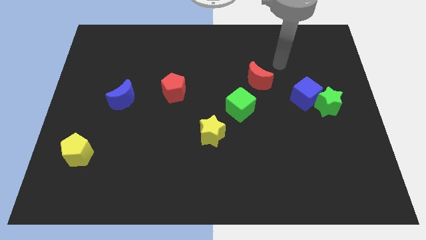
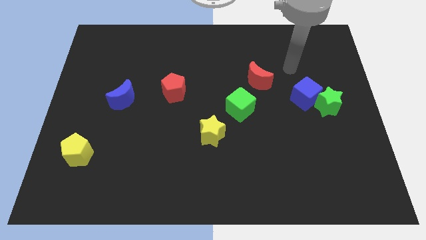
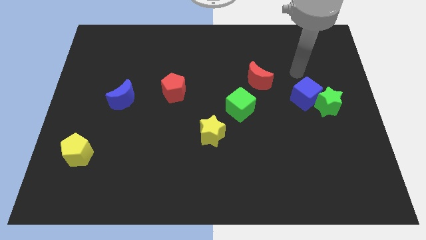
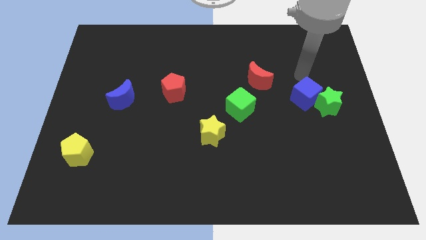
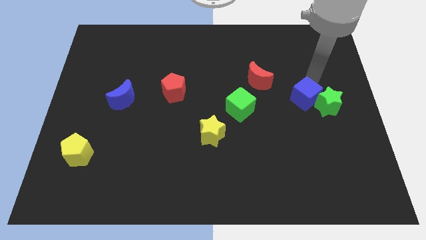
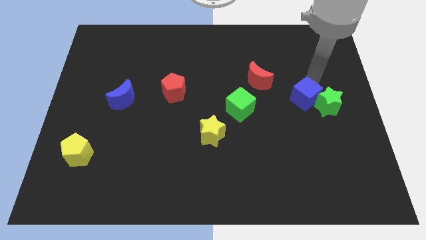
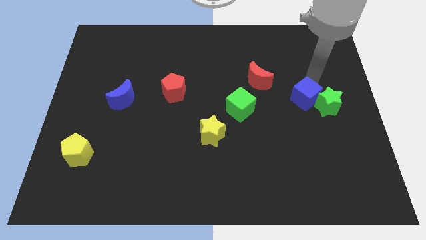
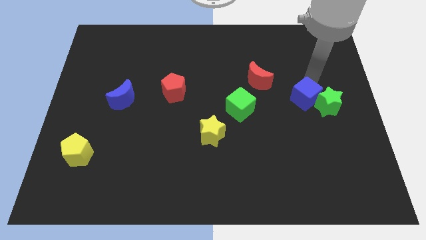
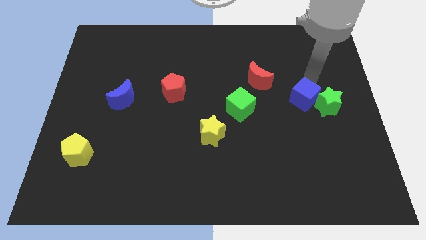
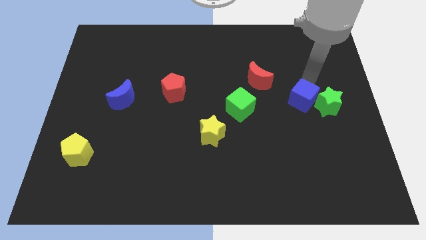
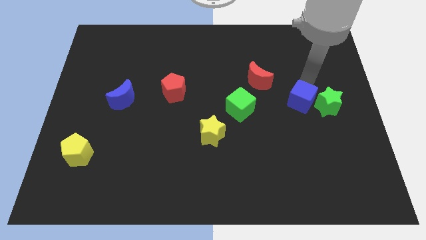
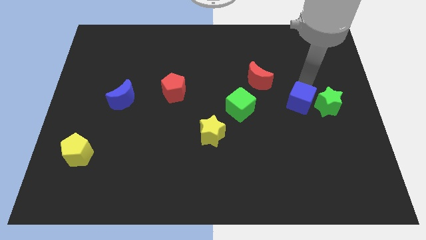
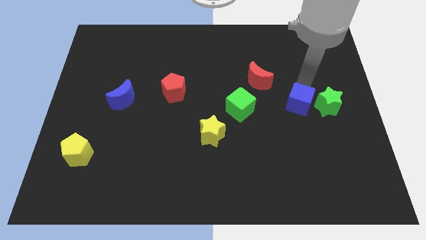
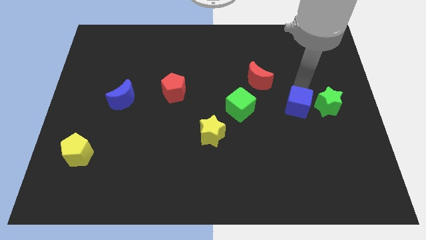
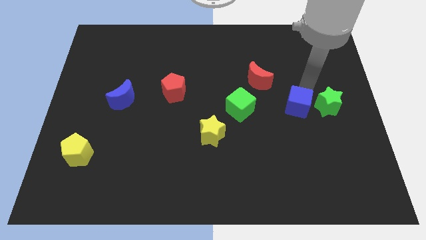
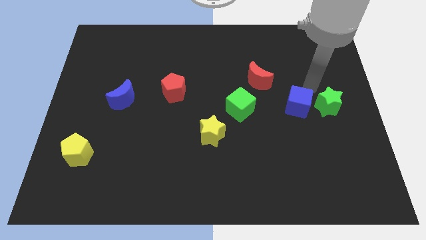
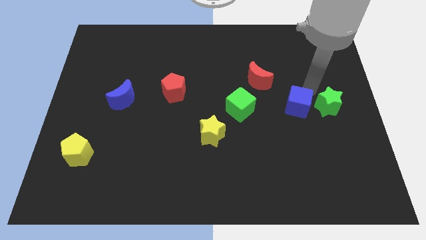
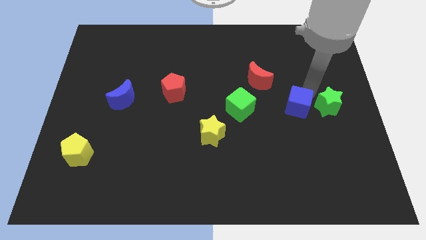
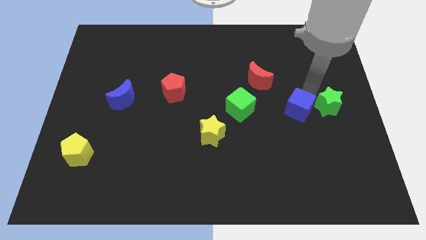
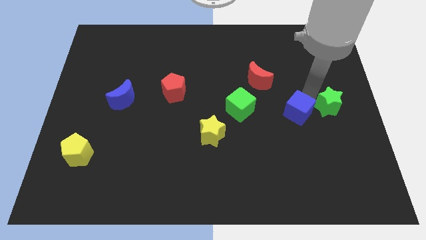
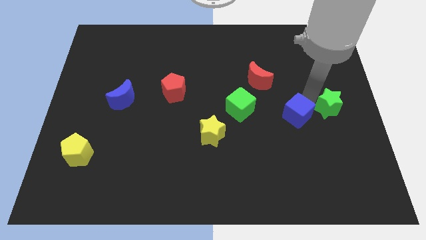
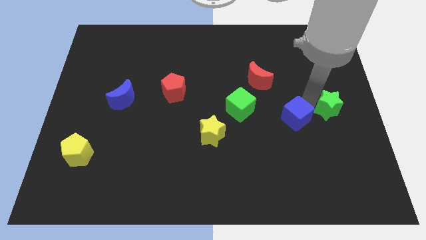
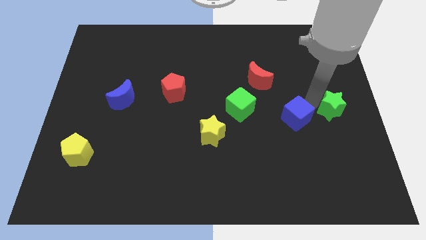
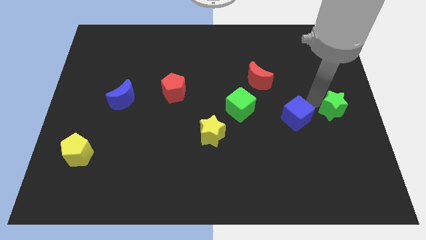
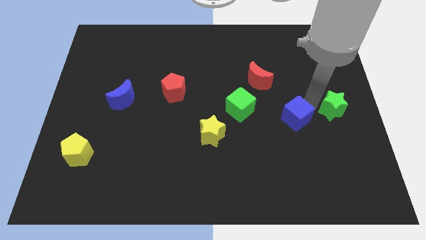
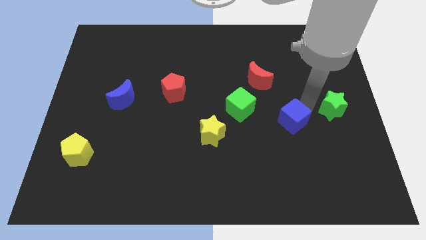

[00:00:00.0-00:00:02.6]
move the blue cube somewhat down and then left

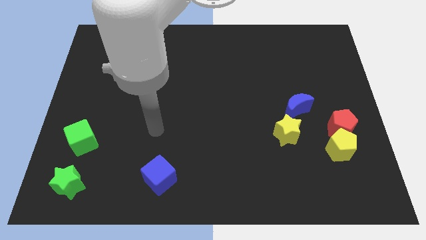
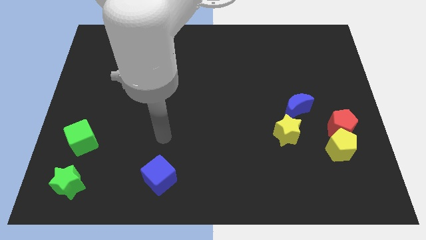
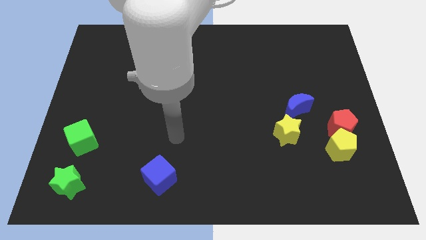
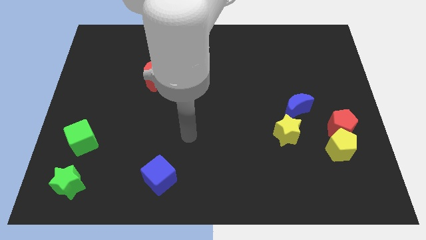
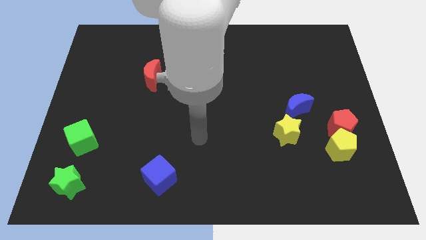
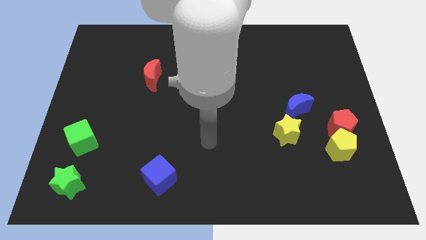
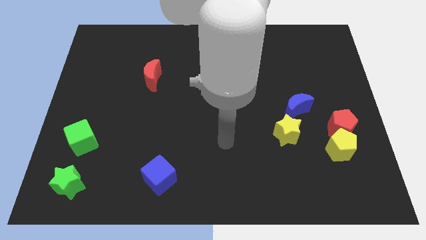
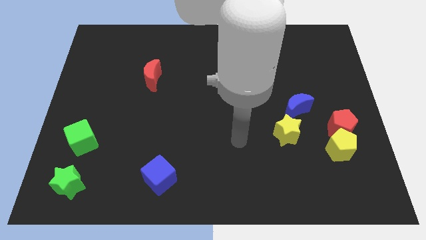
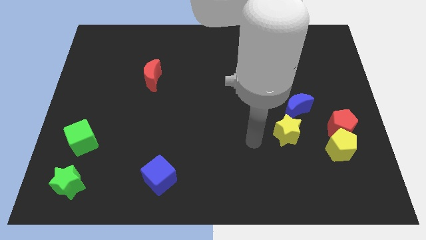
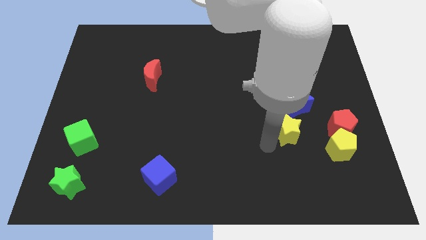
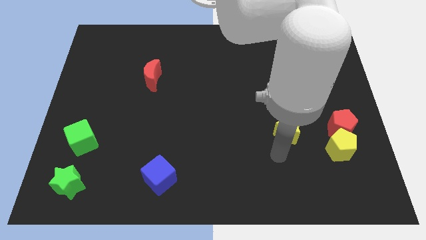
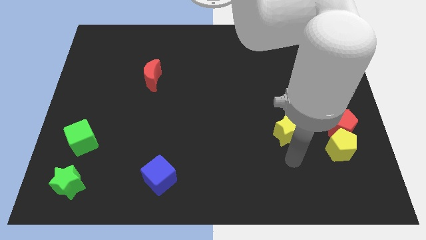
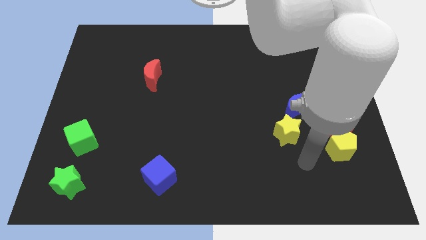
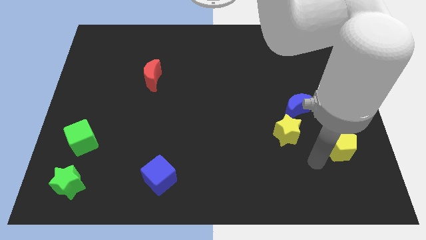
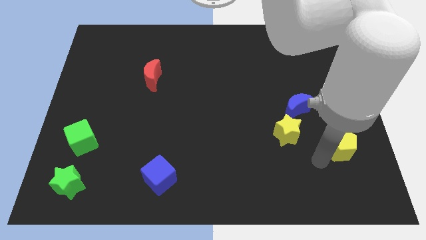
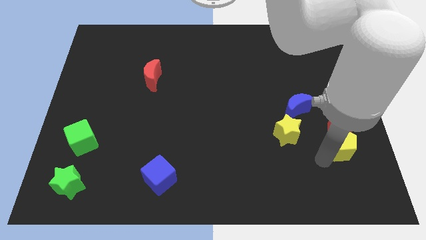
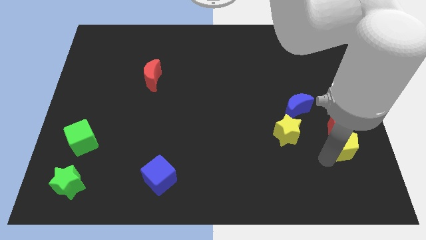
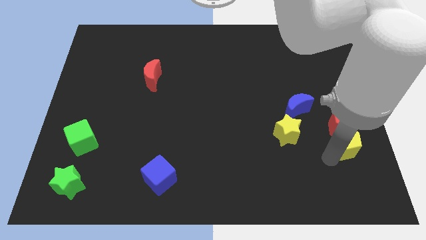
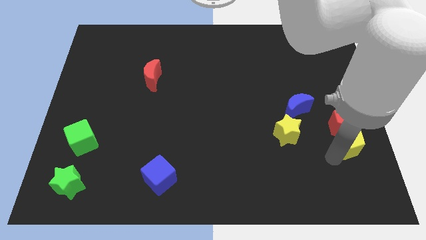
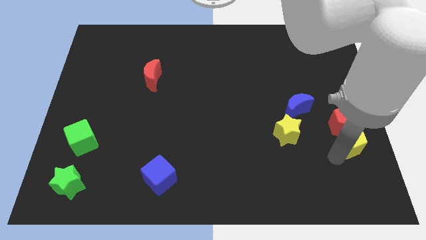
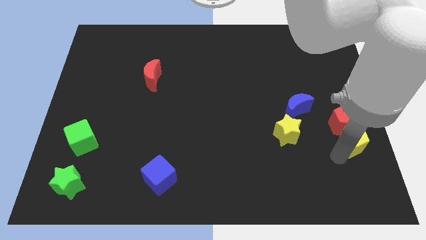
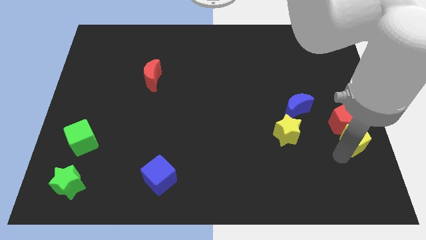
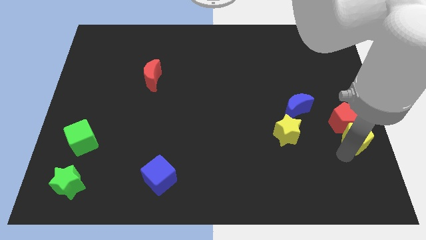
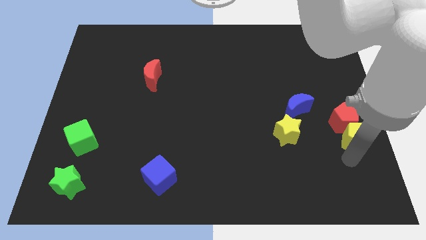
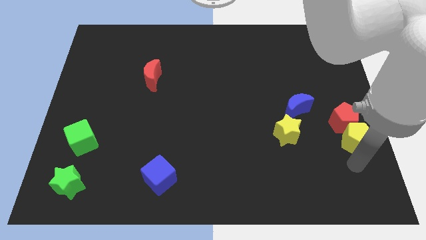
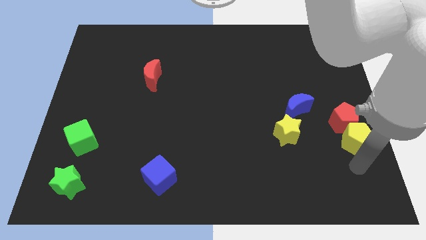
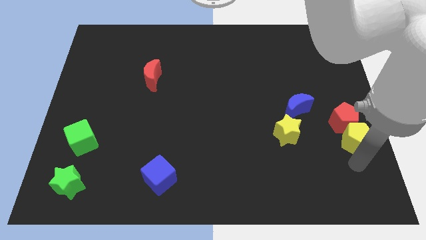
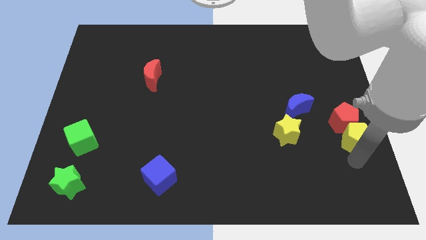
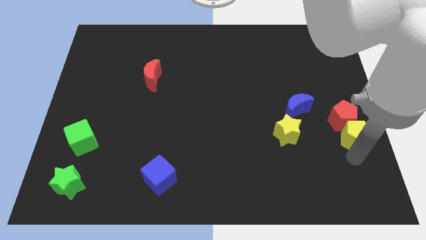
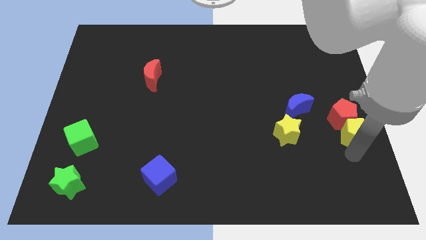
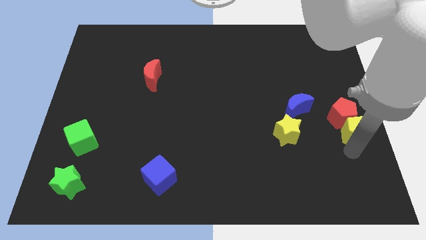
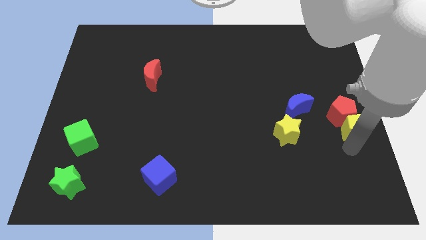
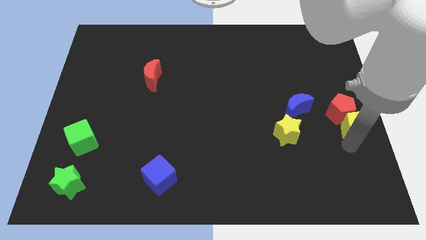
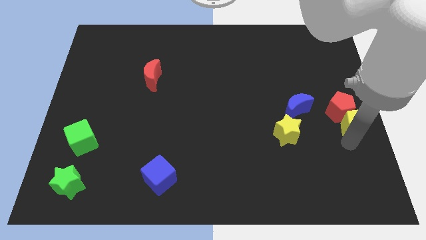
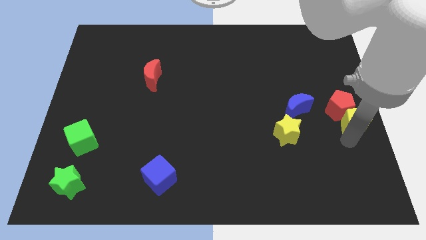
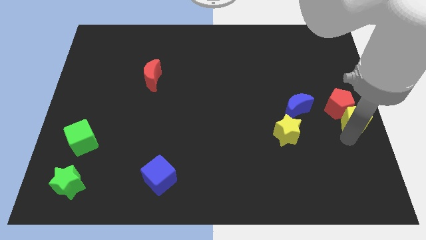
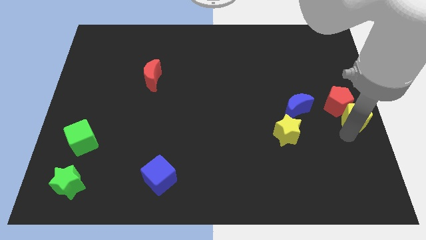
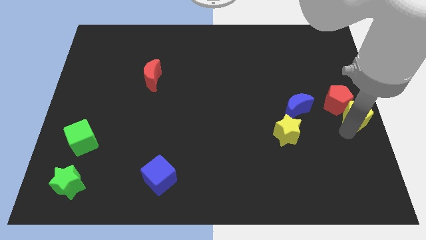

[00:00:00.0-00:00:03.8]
slide the yellow pentagon a little upwards

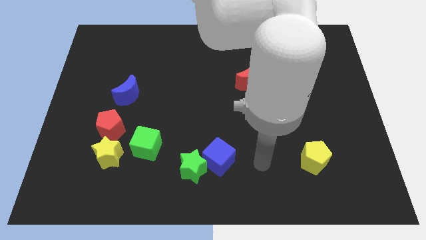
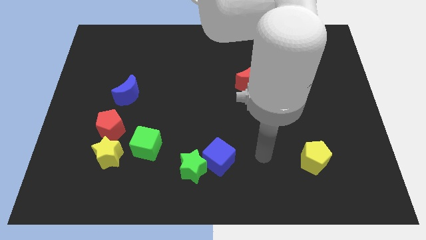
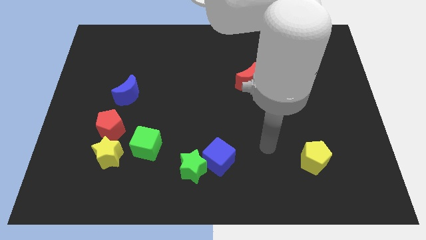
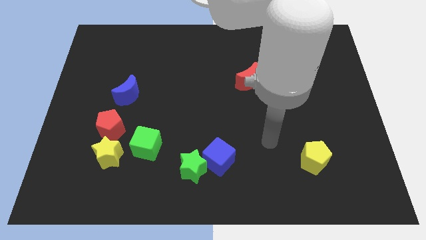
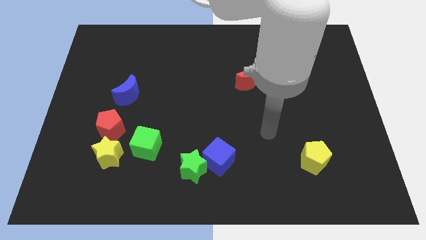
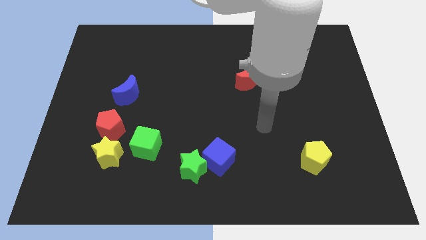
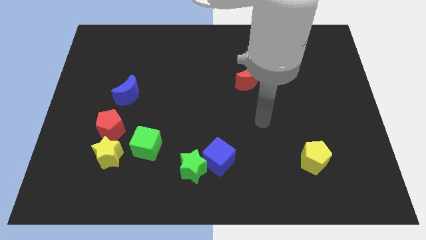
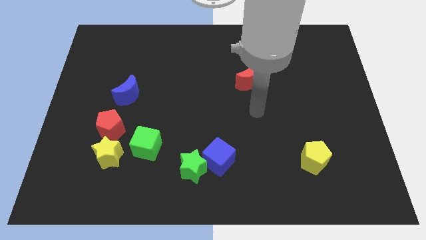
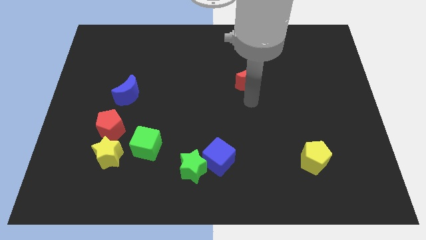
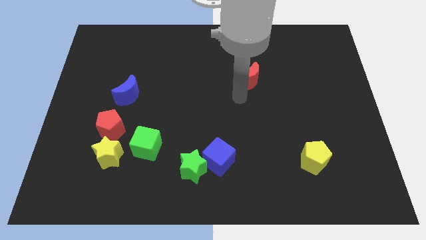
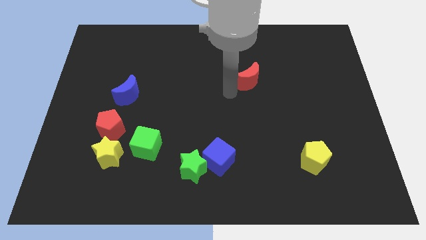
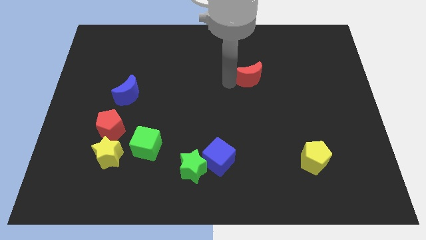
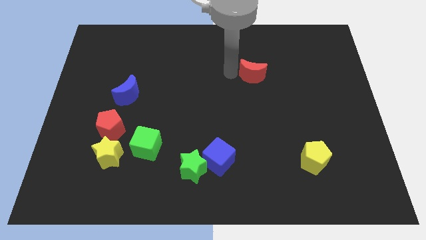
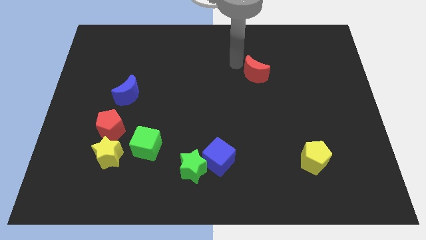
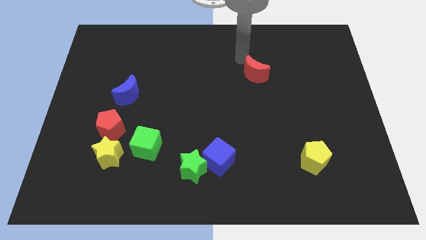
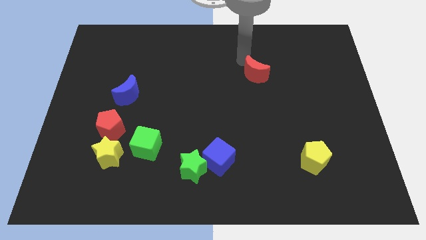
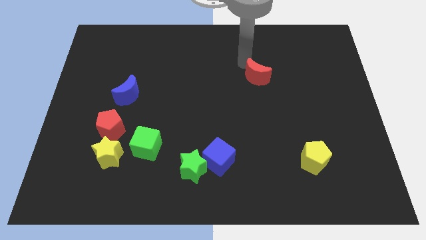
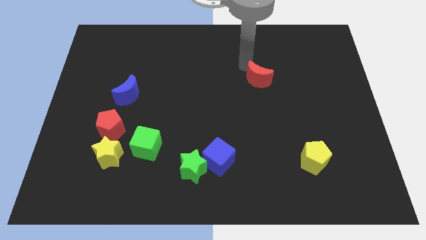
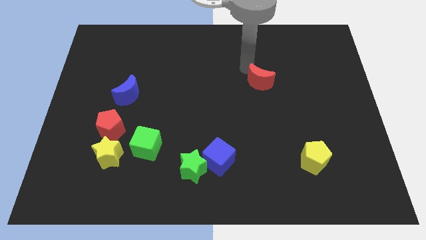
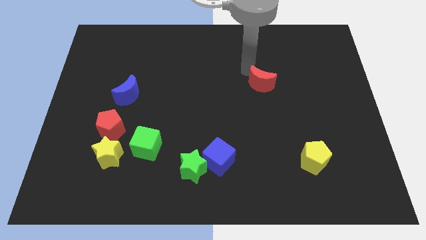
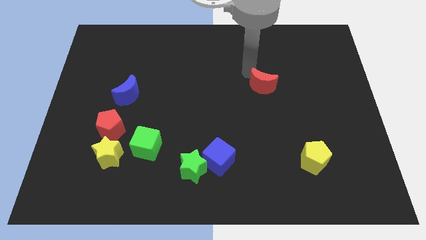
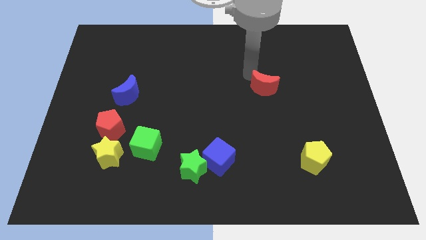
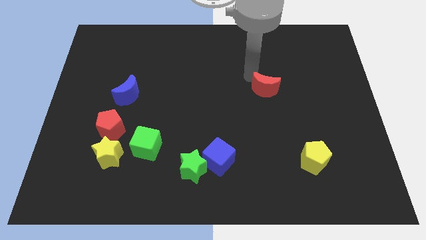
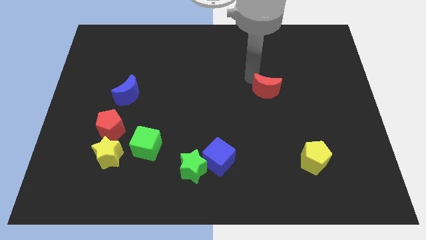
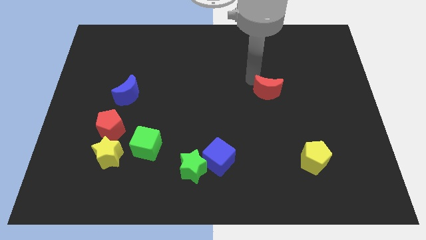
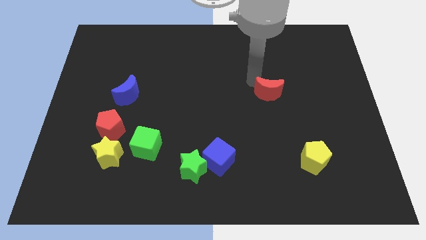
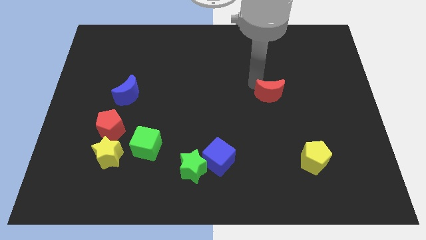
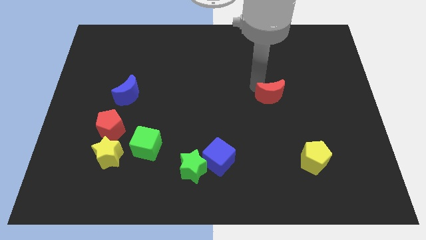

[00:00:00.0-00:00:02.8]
push the red moon slightly diagonally down and right
